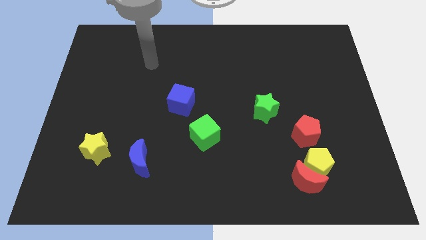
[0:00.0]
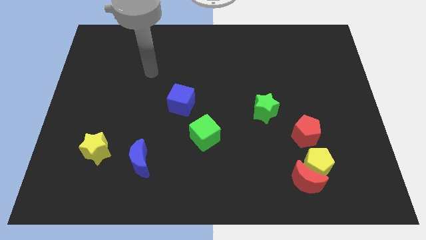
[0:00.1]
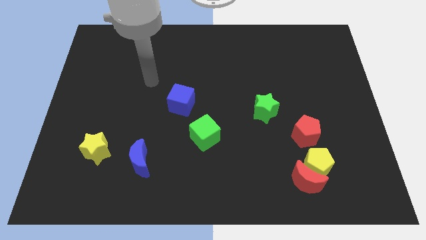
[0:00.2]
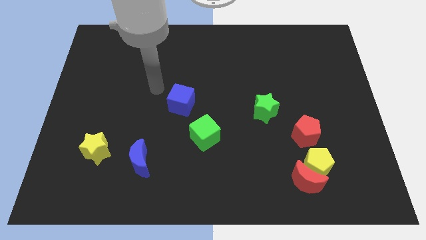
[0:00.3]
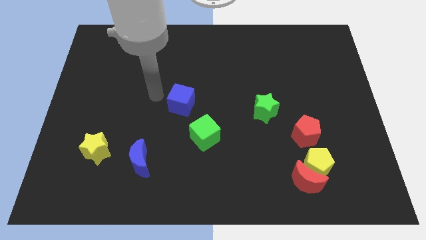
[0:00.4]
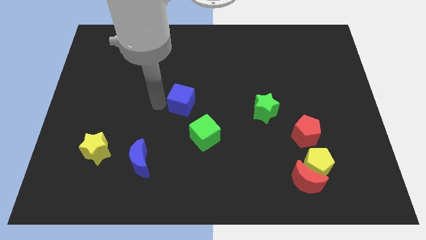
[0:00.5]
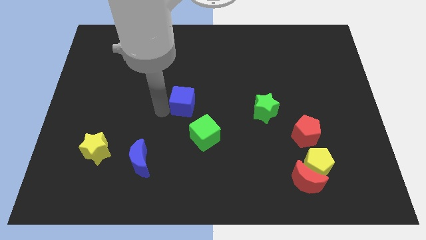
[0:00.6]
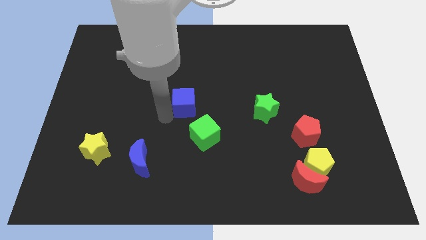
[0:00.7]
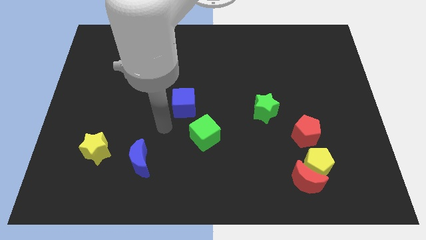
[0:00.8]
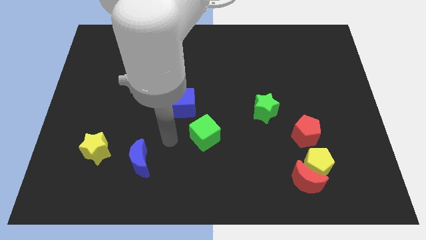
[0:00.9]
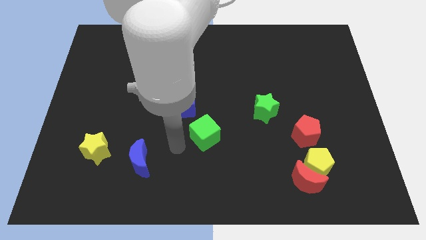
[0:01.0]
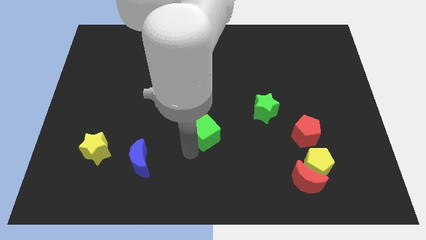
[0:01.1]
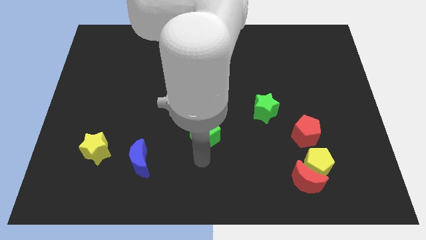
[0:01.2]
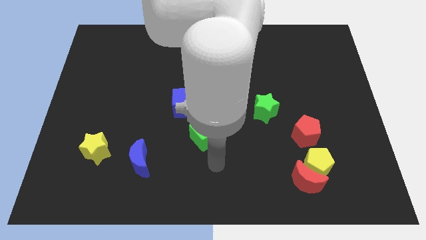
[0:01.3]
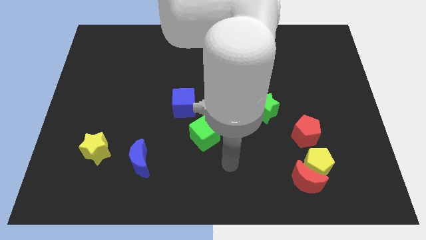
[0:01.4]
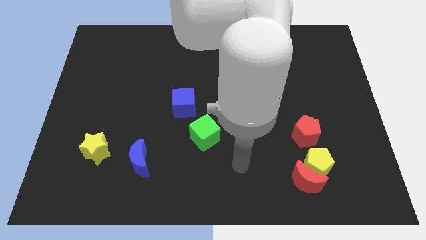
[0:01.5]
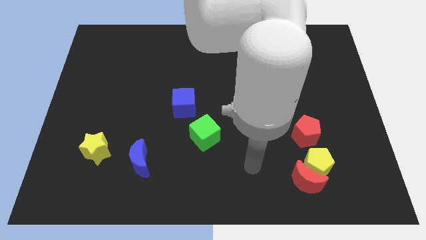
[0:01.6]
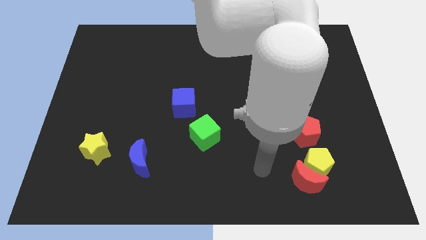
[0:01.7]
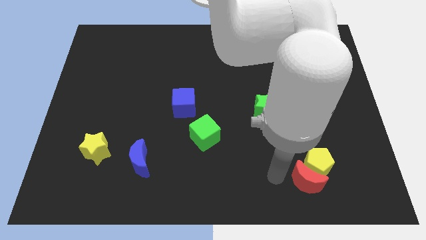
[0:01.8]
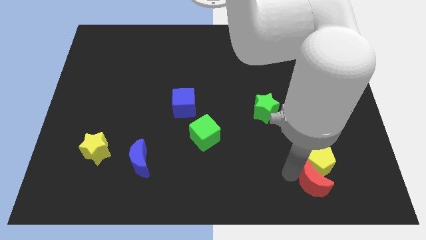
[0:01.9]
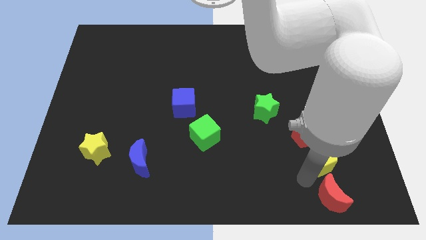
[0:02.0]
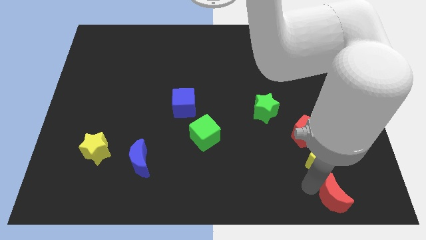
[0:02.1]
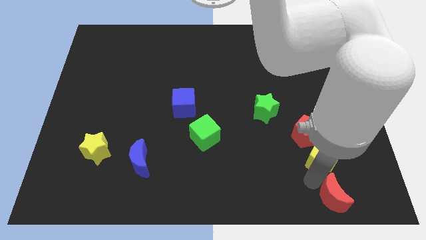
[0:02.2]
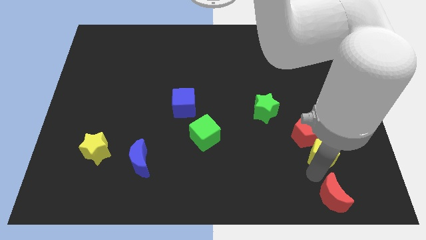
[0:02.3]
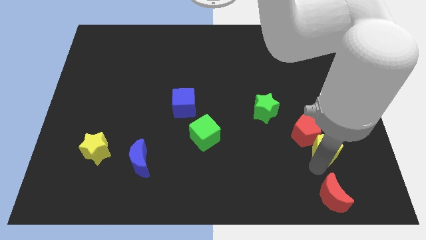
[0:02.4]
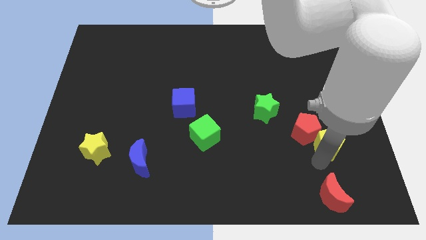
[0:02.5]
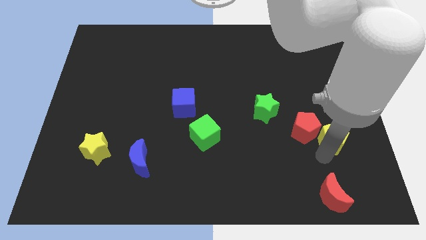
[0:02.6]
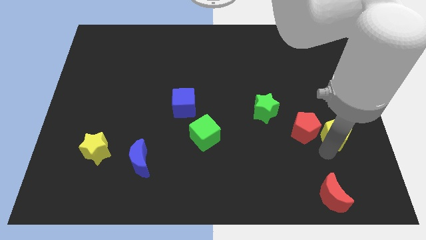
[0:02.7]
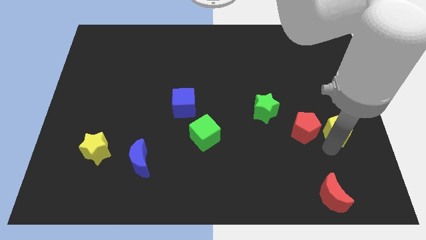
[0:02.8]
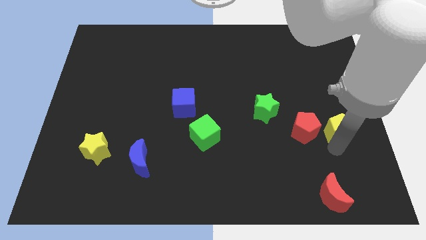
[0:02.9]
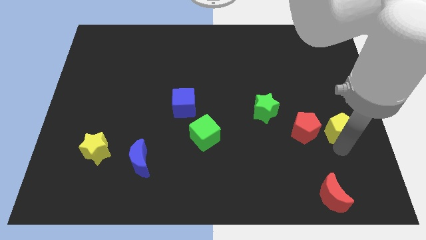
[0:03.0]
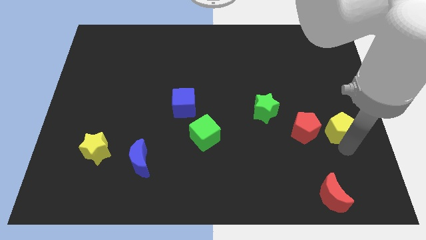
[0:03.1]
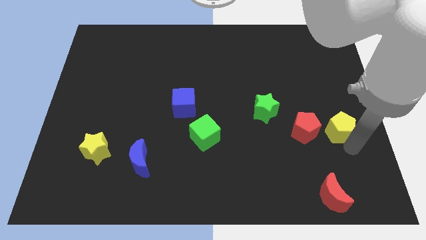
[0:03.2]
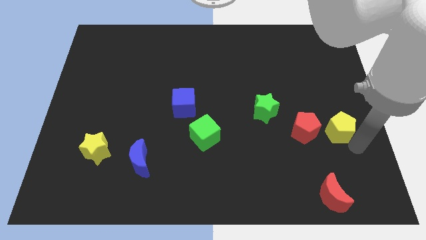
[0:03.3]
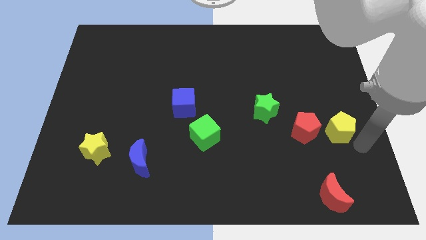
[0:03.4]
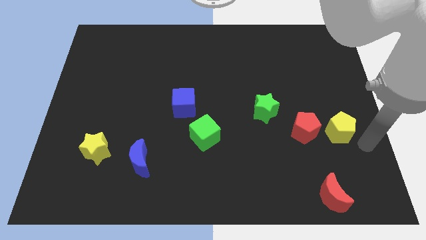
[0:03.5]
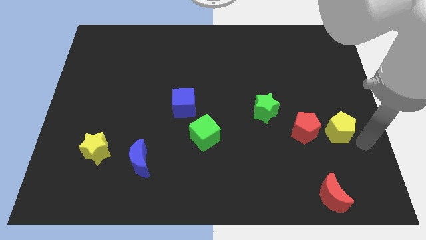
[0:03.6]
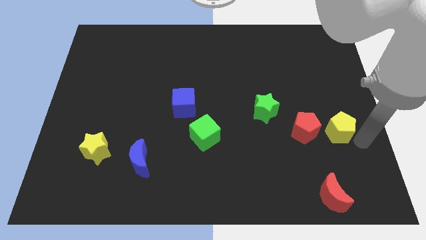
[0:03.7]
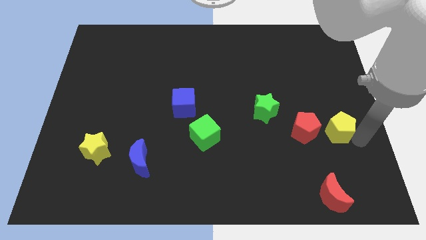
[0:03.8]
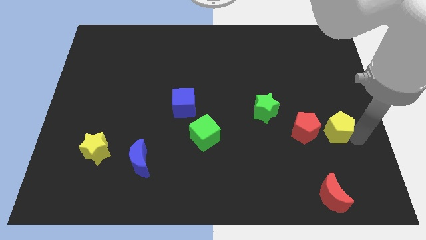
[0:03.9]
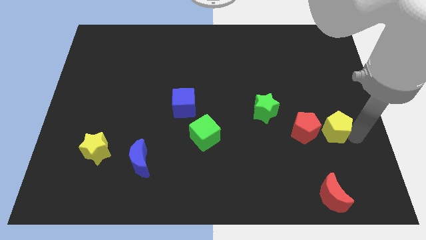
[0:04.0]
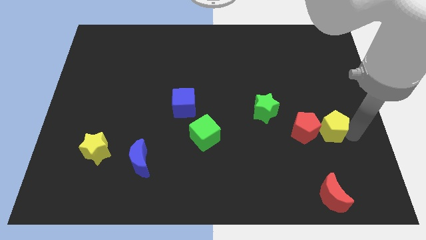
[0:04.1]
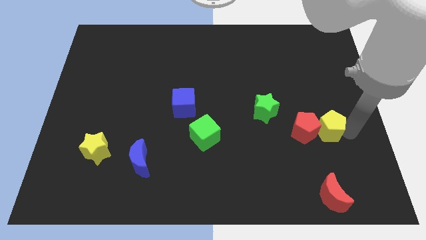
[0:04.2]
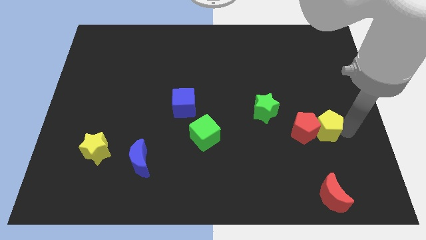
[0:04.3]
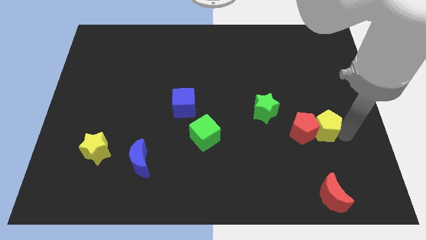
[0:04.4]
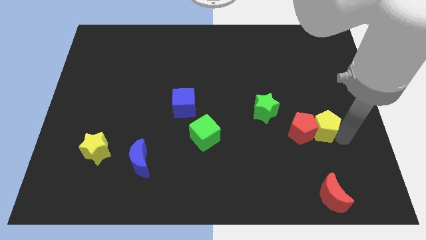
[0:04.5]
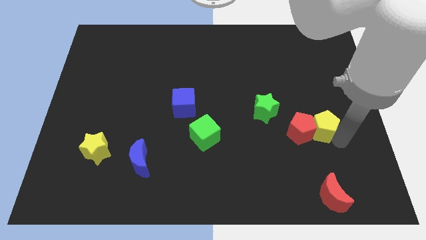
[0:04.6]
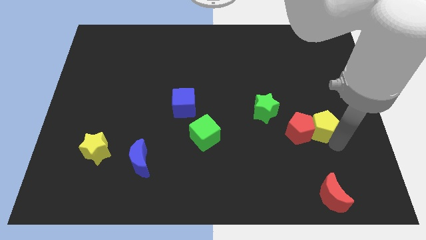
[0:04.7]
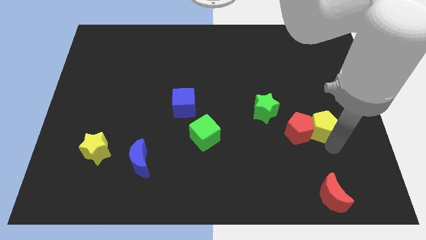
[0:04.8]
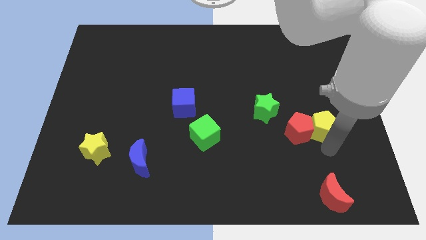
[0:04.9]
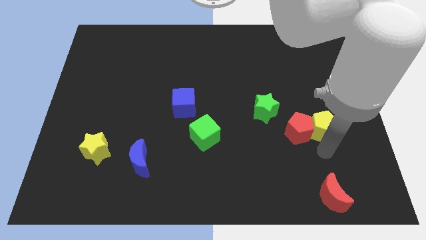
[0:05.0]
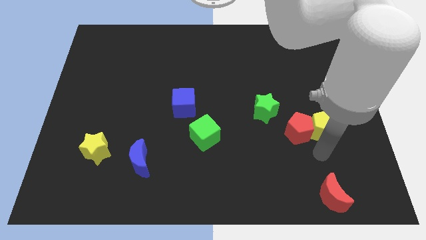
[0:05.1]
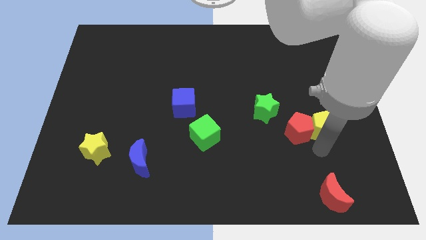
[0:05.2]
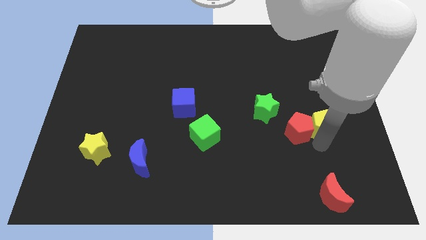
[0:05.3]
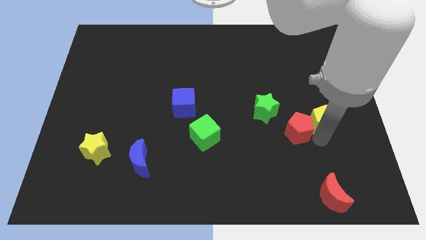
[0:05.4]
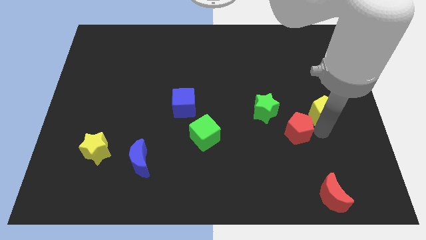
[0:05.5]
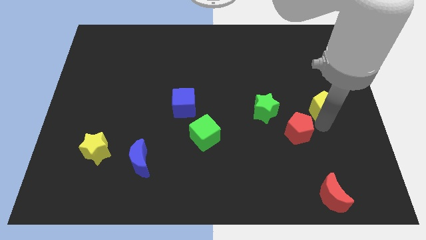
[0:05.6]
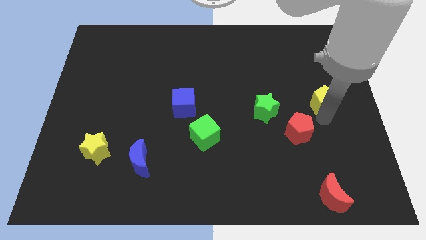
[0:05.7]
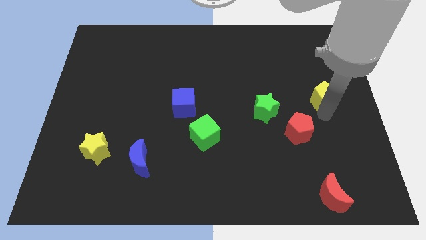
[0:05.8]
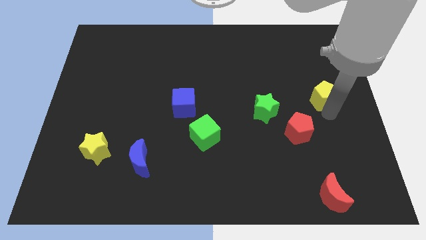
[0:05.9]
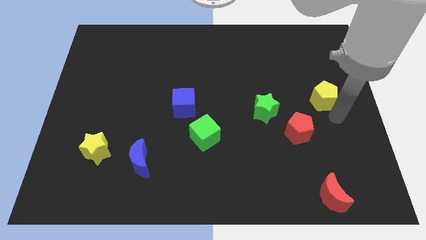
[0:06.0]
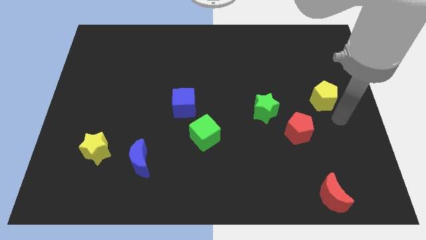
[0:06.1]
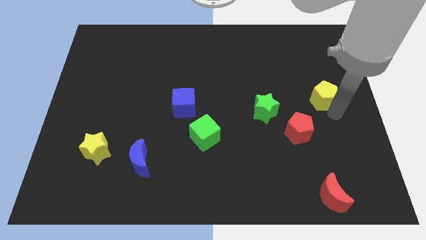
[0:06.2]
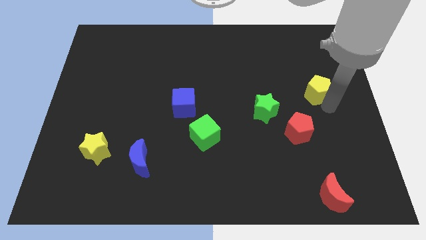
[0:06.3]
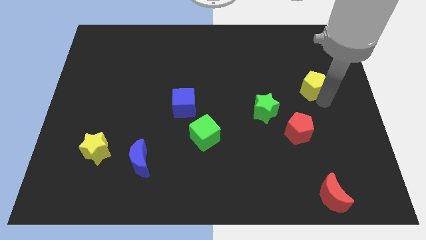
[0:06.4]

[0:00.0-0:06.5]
move the yellow pentagon upwards

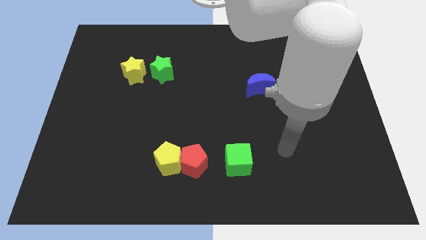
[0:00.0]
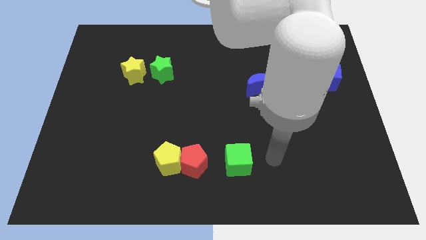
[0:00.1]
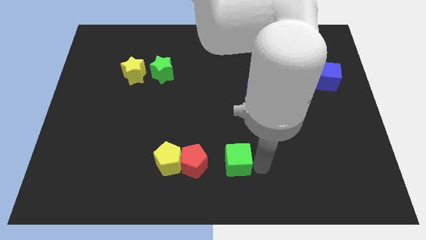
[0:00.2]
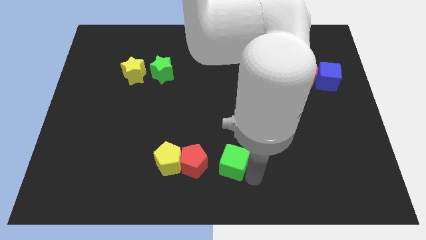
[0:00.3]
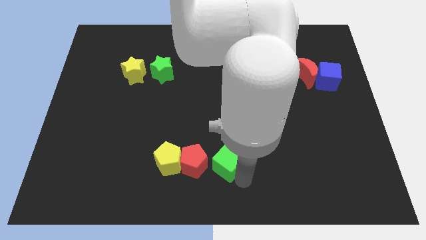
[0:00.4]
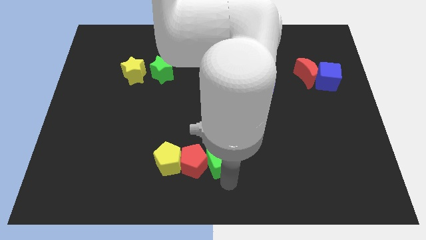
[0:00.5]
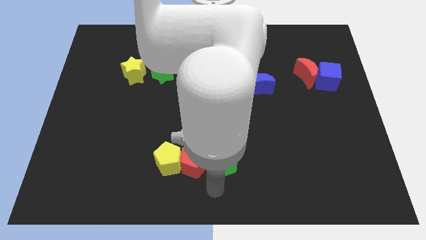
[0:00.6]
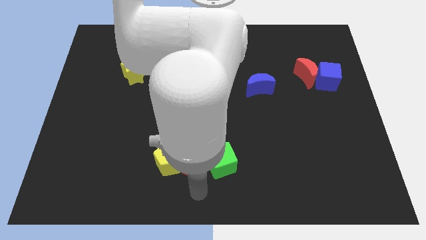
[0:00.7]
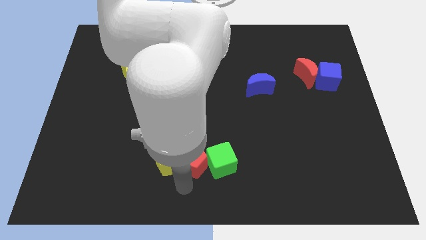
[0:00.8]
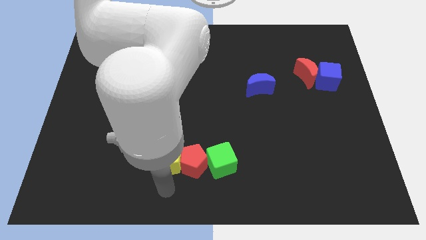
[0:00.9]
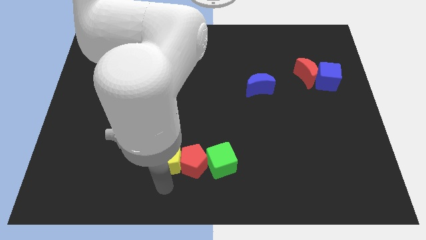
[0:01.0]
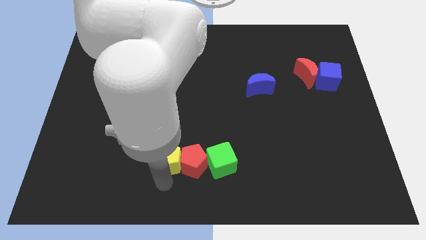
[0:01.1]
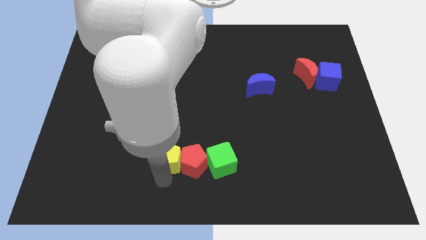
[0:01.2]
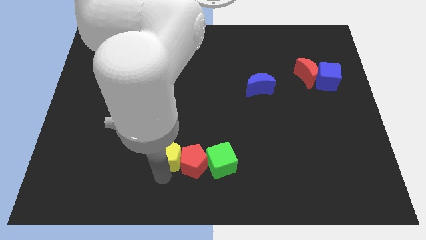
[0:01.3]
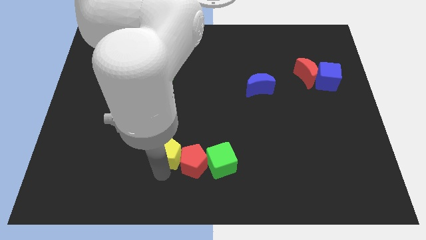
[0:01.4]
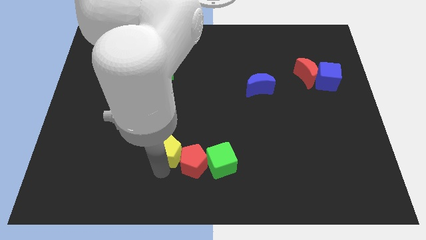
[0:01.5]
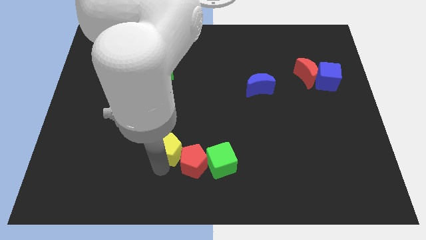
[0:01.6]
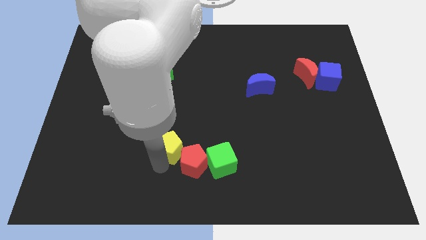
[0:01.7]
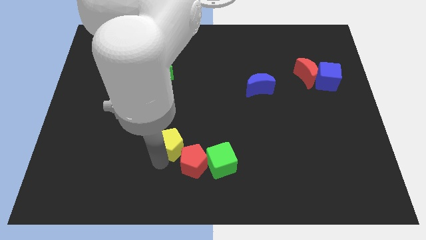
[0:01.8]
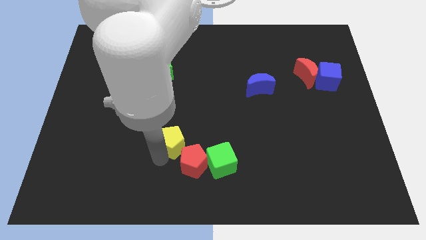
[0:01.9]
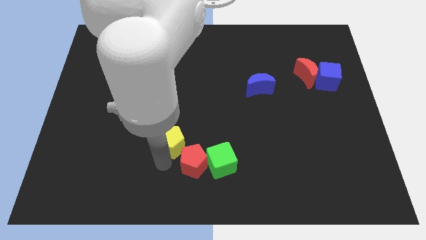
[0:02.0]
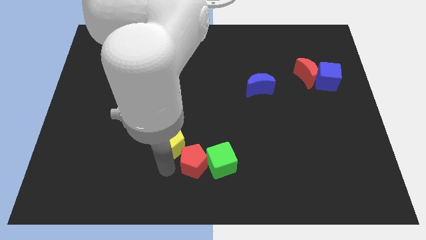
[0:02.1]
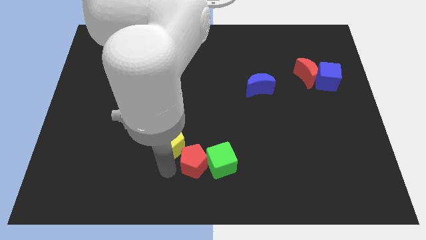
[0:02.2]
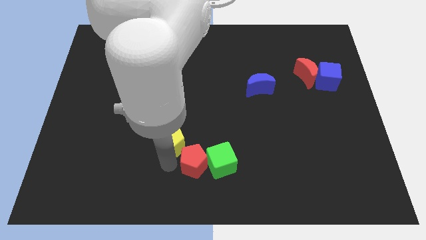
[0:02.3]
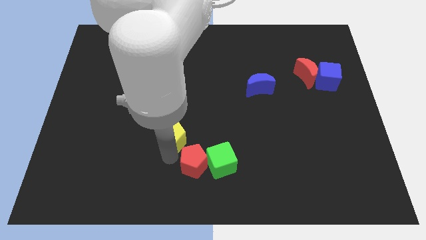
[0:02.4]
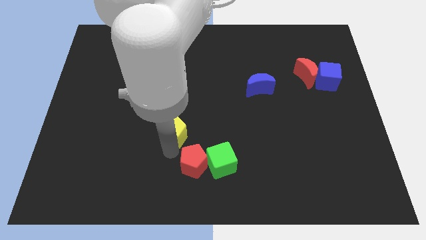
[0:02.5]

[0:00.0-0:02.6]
push the yellow pentagon a bit upwards
